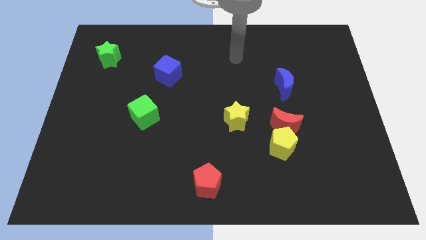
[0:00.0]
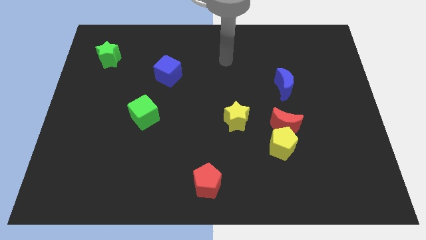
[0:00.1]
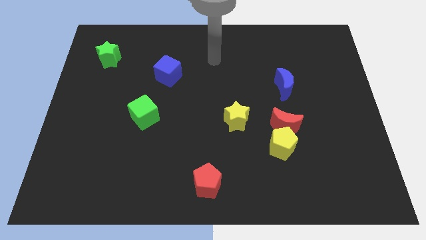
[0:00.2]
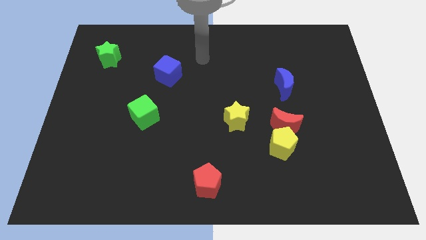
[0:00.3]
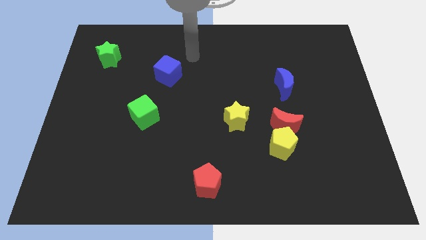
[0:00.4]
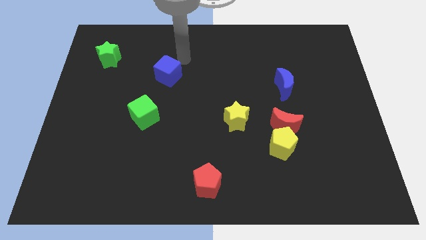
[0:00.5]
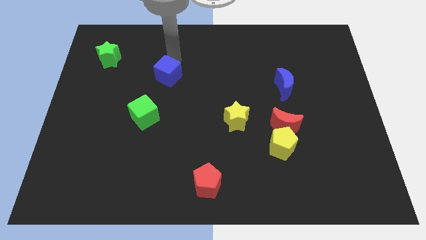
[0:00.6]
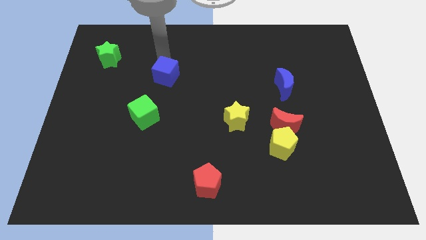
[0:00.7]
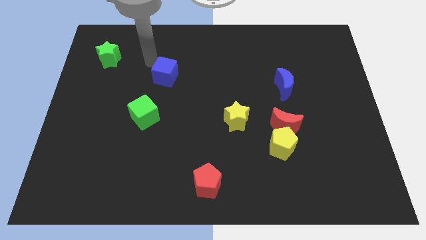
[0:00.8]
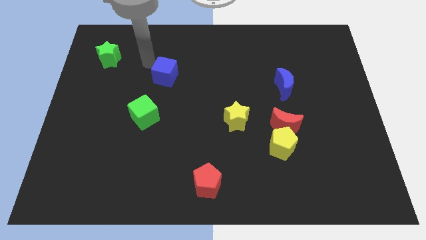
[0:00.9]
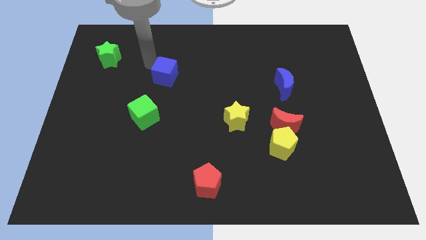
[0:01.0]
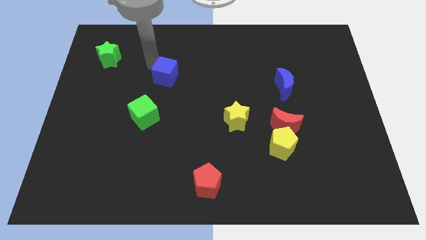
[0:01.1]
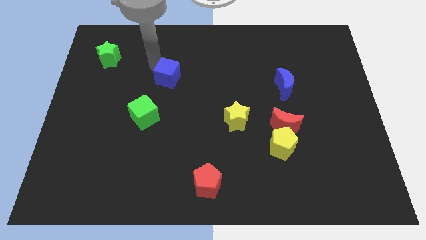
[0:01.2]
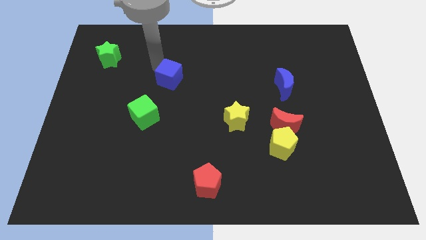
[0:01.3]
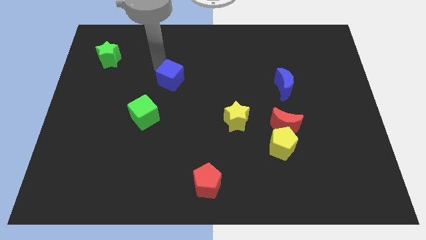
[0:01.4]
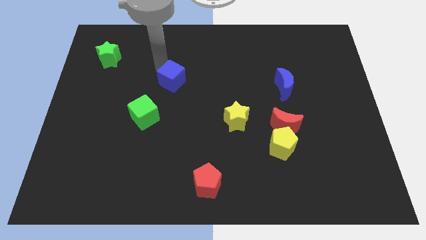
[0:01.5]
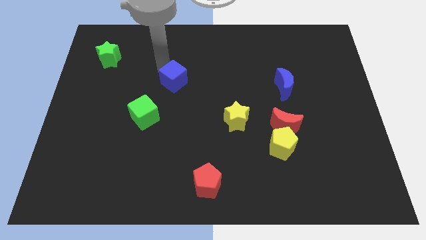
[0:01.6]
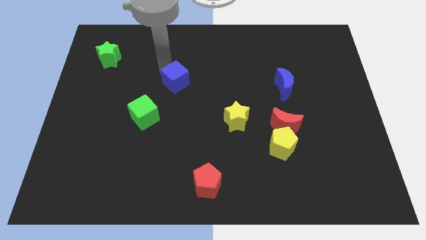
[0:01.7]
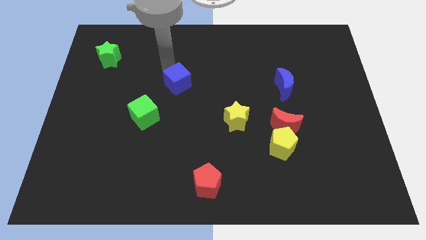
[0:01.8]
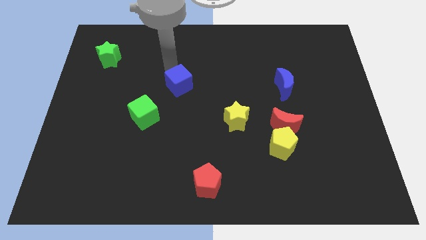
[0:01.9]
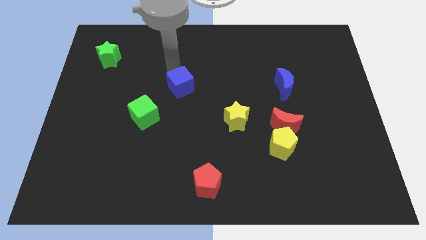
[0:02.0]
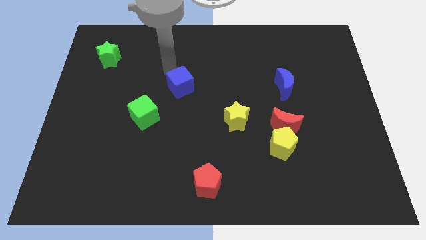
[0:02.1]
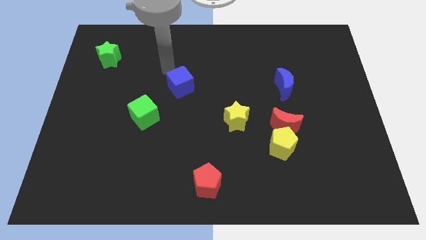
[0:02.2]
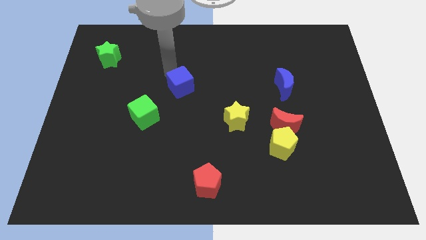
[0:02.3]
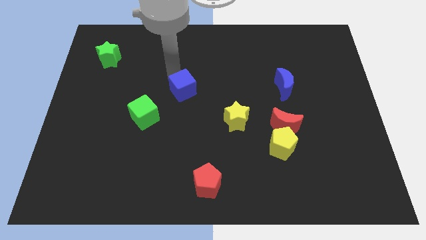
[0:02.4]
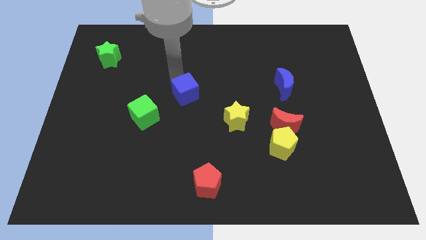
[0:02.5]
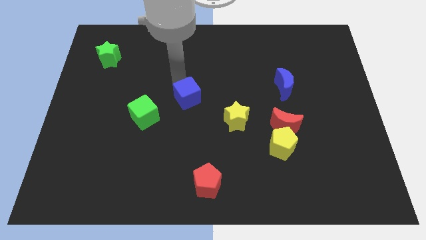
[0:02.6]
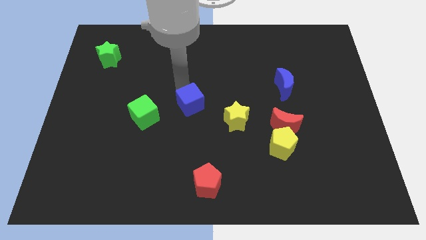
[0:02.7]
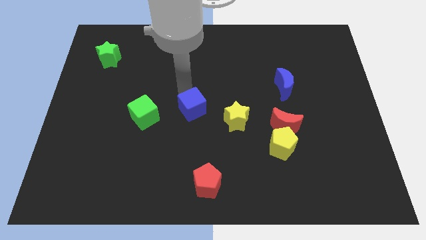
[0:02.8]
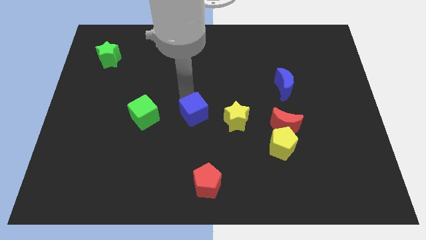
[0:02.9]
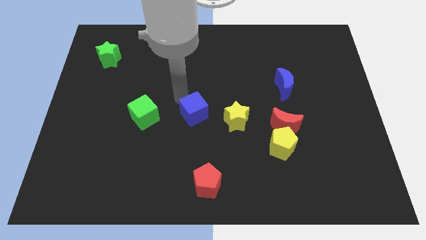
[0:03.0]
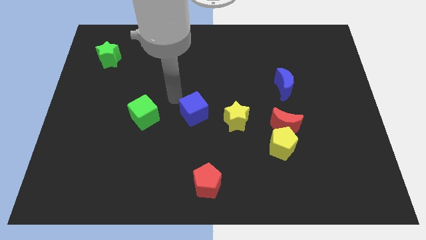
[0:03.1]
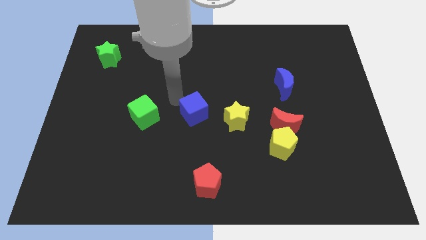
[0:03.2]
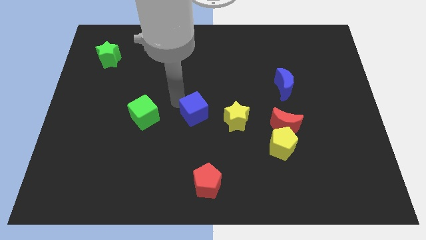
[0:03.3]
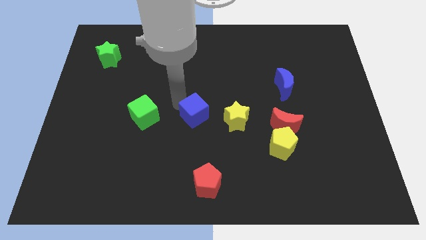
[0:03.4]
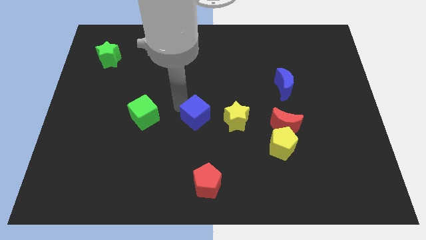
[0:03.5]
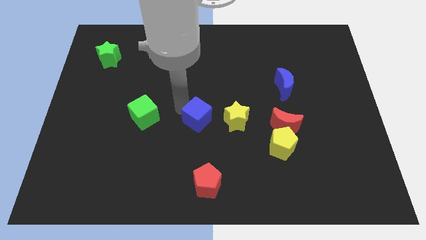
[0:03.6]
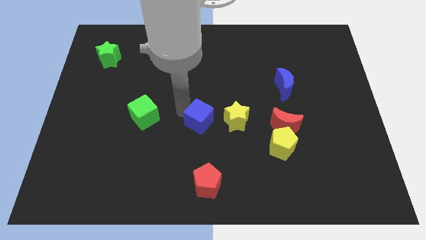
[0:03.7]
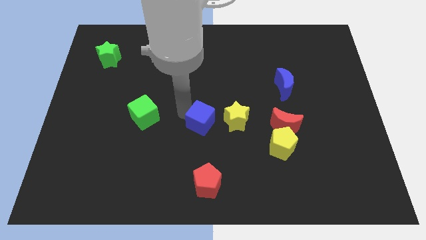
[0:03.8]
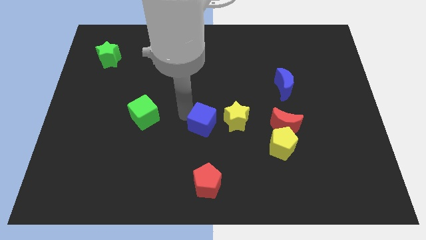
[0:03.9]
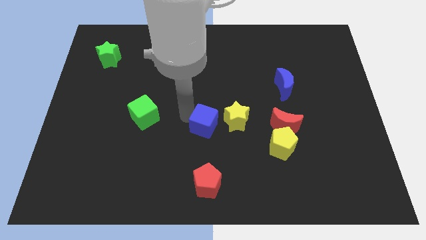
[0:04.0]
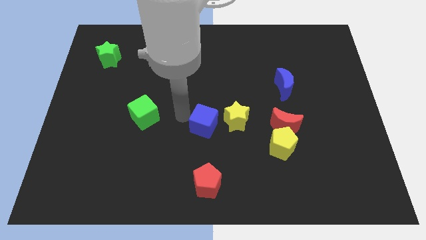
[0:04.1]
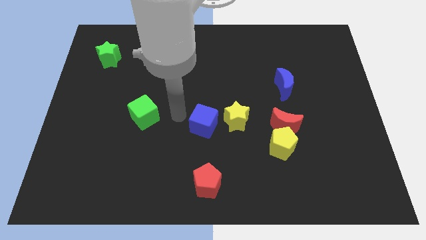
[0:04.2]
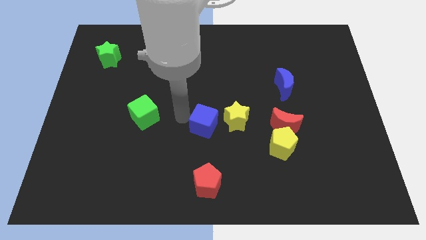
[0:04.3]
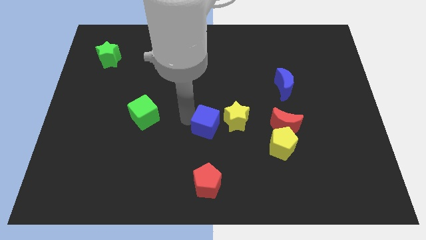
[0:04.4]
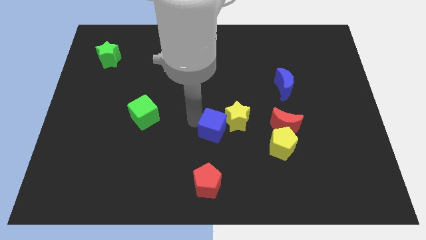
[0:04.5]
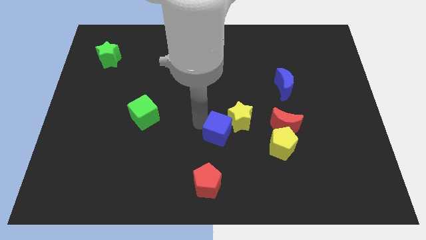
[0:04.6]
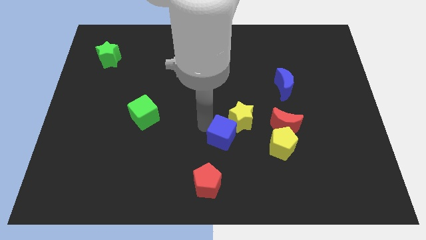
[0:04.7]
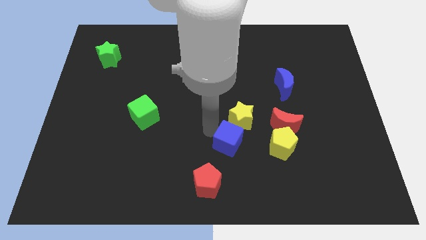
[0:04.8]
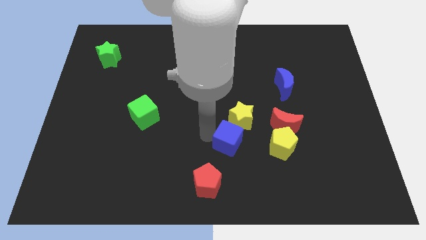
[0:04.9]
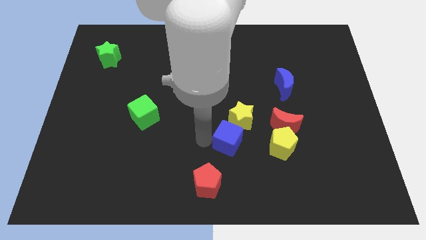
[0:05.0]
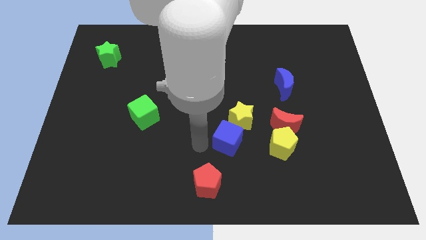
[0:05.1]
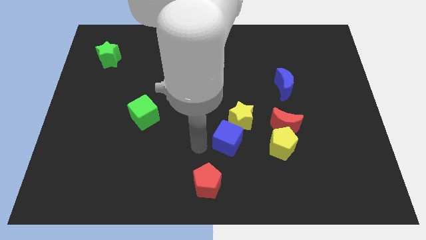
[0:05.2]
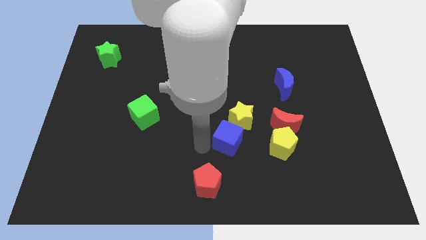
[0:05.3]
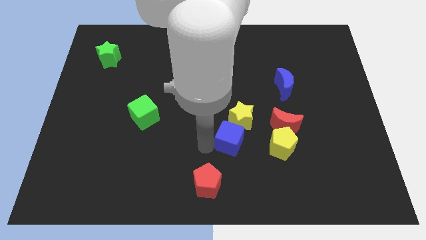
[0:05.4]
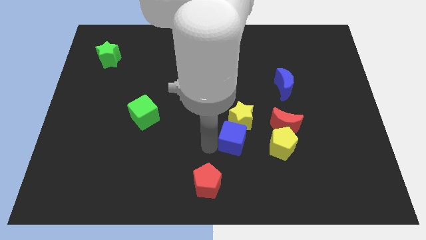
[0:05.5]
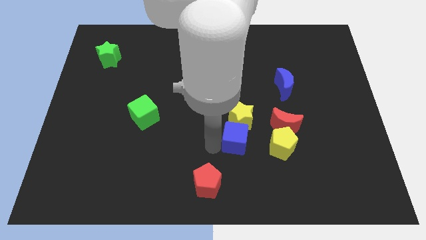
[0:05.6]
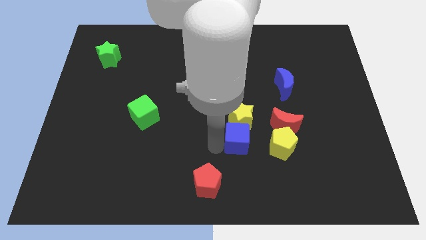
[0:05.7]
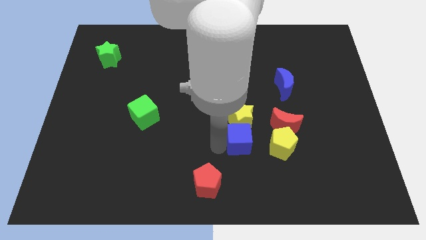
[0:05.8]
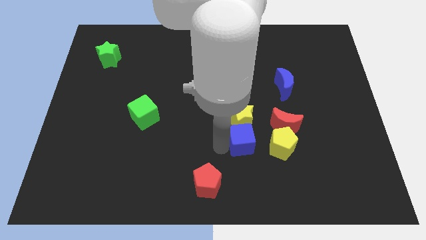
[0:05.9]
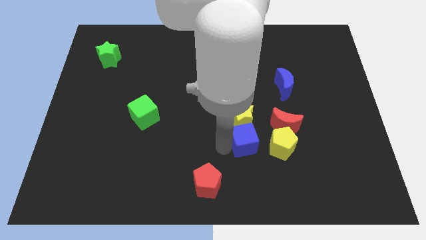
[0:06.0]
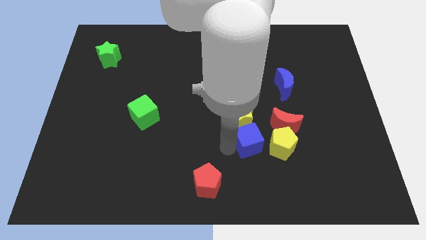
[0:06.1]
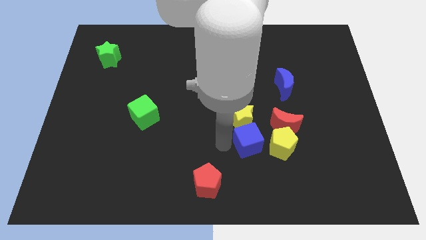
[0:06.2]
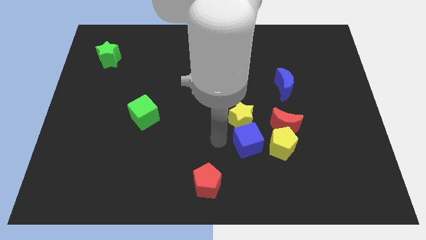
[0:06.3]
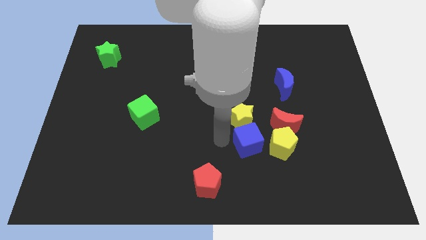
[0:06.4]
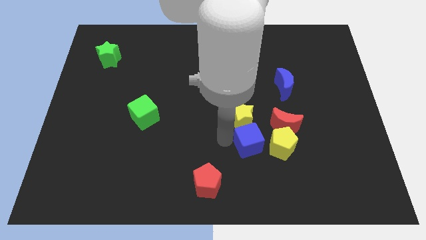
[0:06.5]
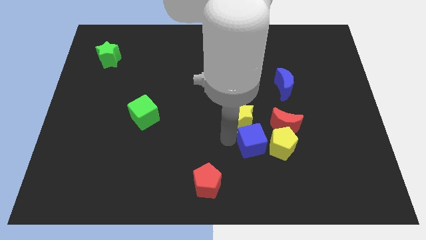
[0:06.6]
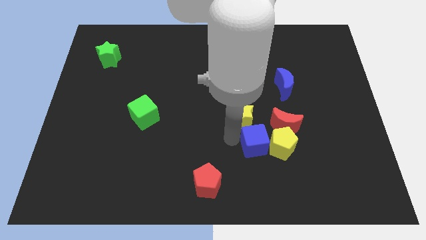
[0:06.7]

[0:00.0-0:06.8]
push the blue cube next to the yellow pentagon

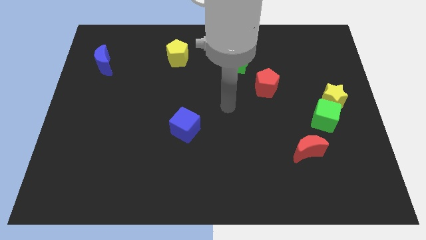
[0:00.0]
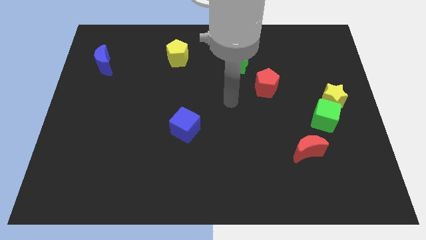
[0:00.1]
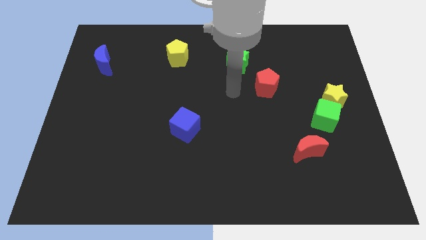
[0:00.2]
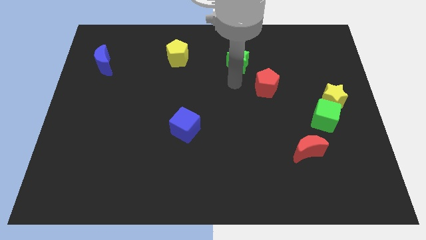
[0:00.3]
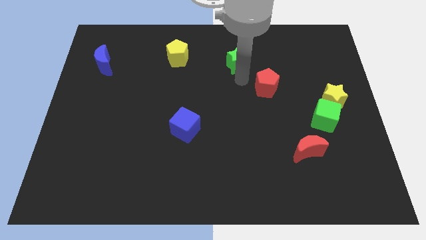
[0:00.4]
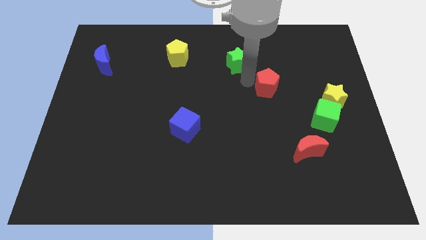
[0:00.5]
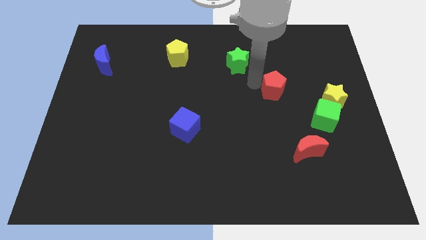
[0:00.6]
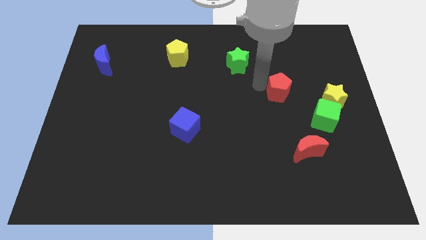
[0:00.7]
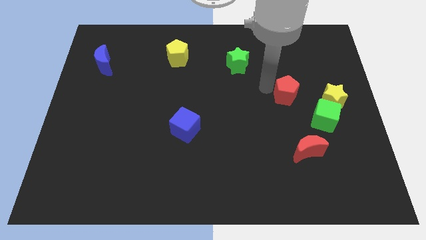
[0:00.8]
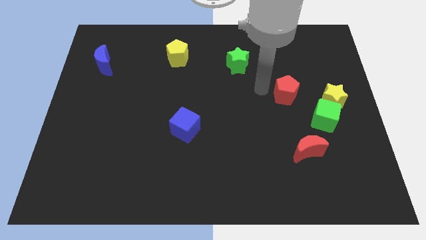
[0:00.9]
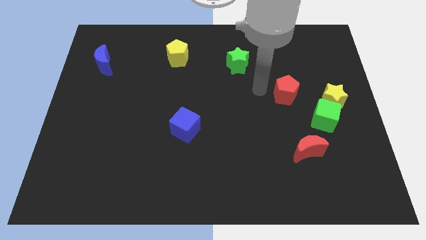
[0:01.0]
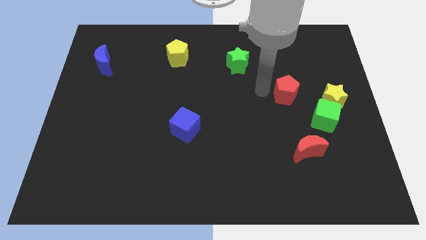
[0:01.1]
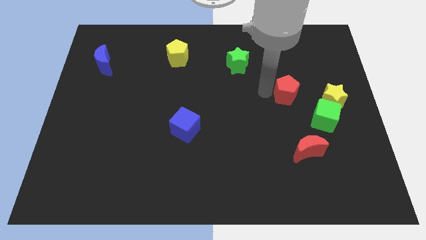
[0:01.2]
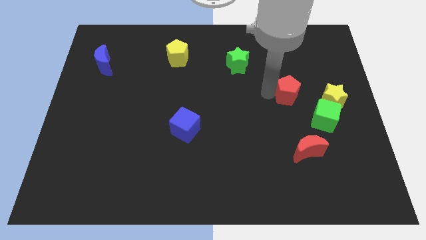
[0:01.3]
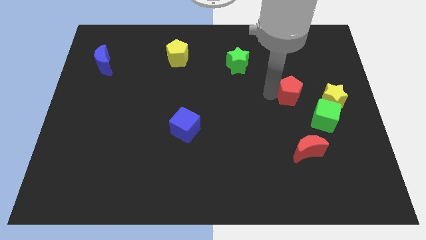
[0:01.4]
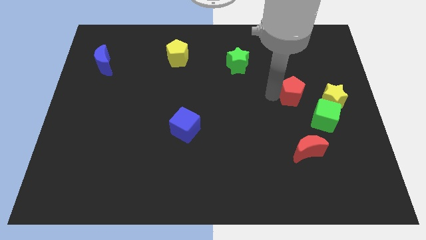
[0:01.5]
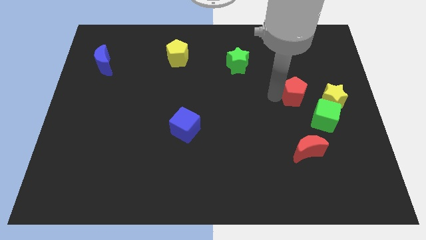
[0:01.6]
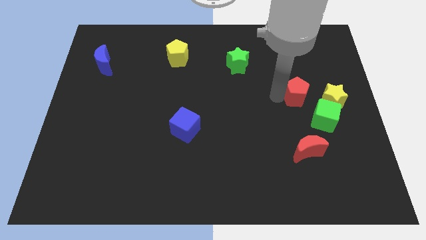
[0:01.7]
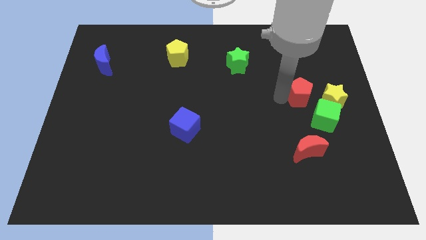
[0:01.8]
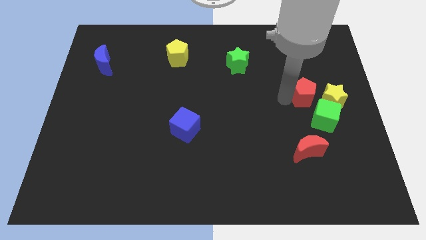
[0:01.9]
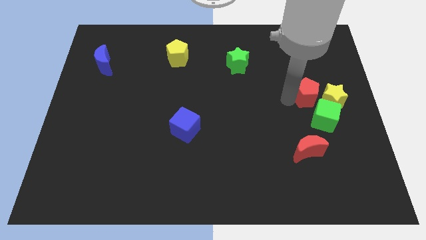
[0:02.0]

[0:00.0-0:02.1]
put the red pentagon close to the yellow star
